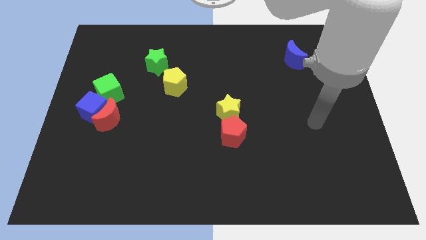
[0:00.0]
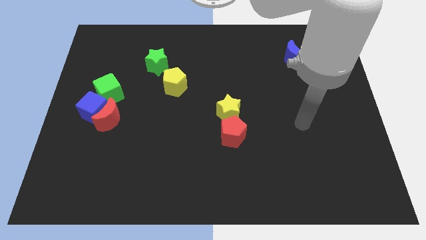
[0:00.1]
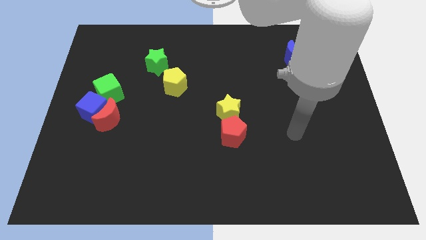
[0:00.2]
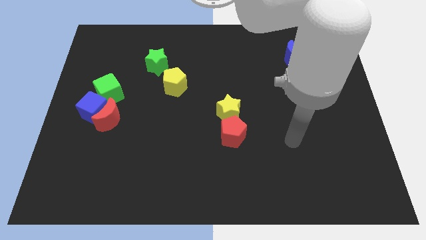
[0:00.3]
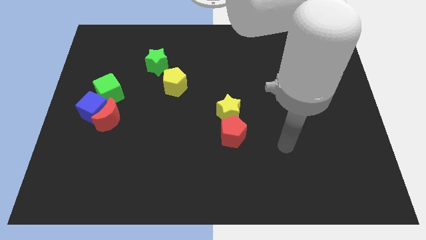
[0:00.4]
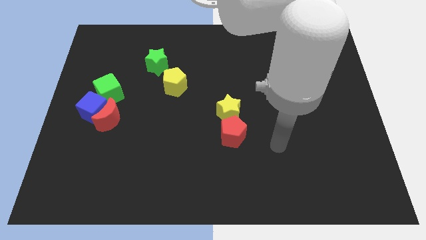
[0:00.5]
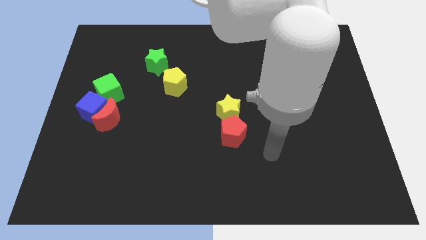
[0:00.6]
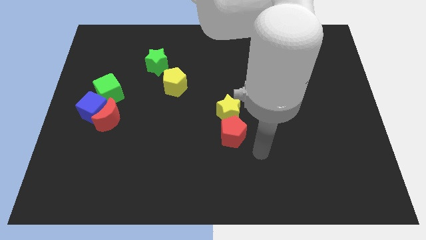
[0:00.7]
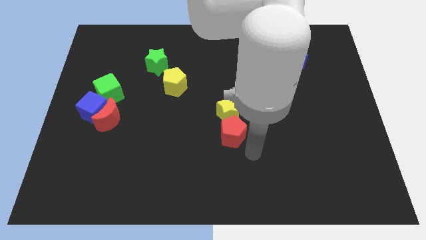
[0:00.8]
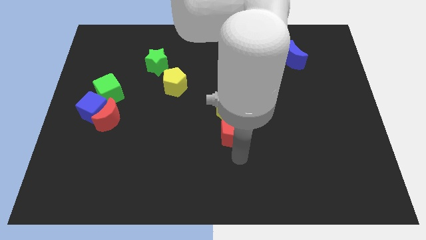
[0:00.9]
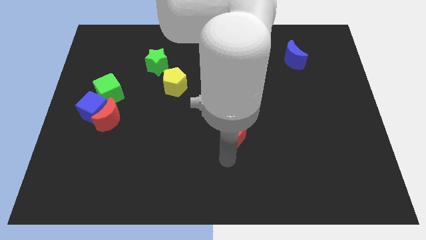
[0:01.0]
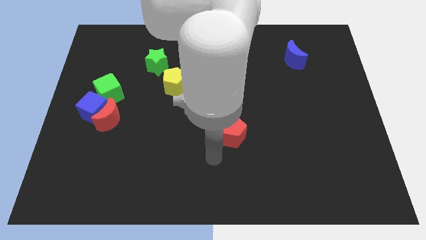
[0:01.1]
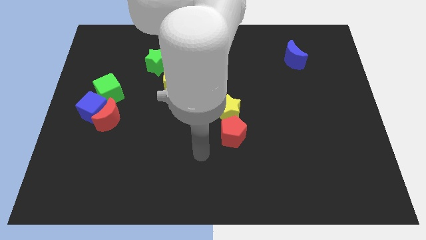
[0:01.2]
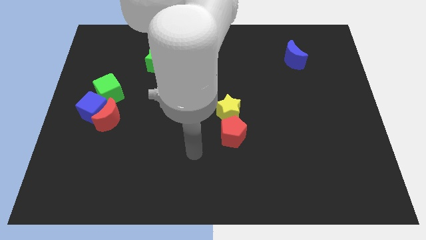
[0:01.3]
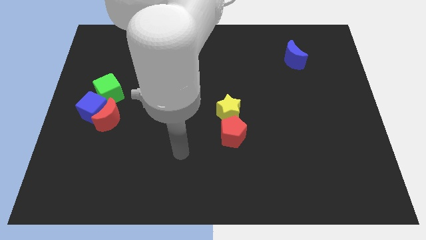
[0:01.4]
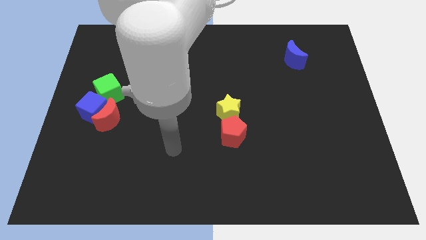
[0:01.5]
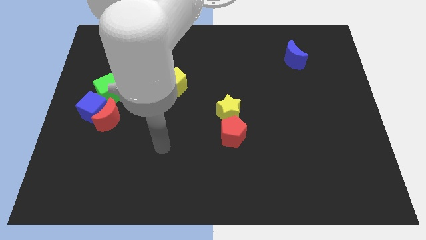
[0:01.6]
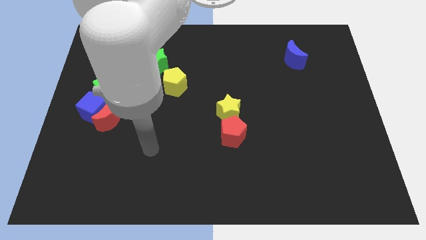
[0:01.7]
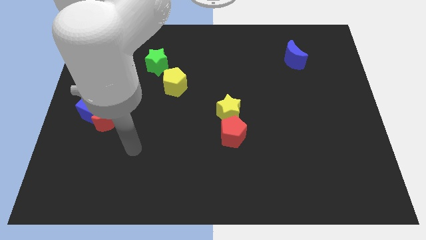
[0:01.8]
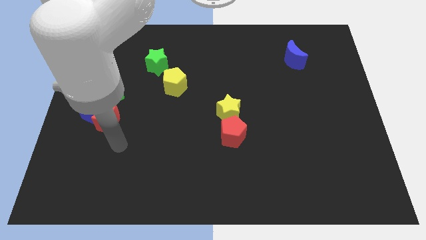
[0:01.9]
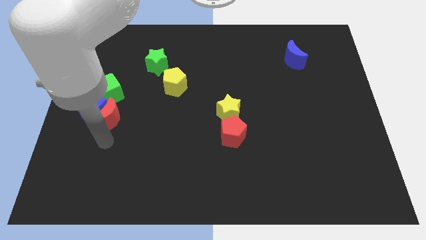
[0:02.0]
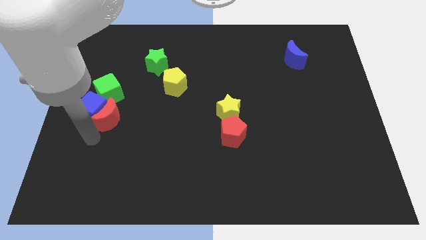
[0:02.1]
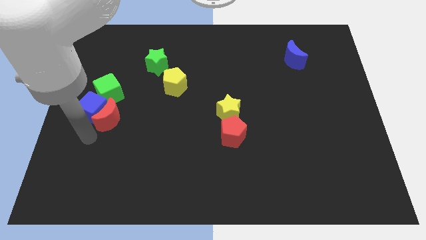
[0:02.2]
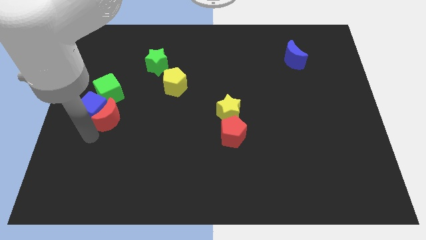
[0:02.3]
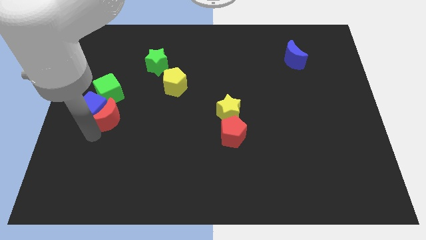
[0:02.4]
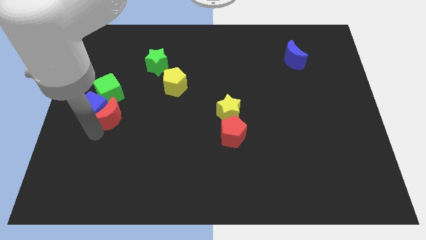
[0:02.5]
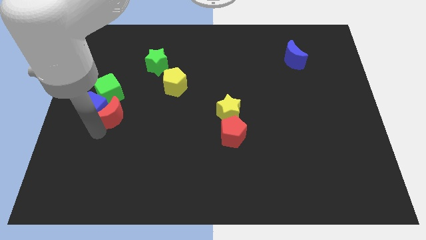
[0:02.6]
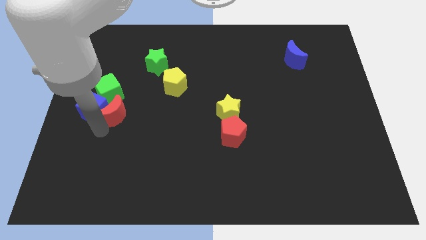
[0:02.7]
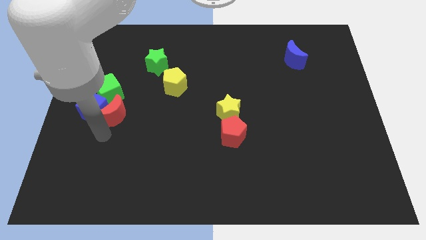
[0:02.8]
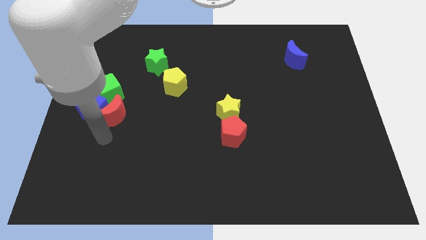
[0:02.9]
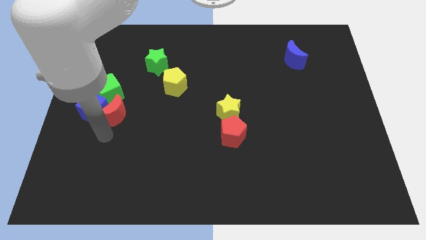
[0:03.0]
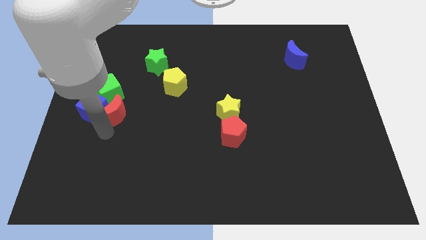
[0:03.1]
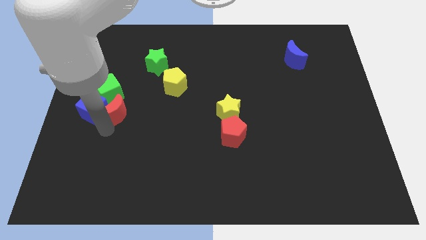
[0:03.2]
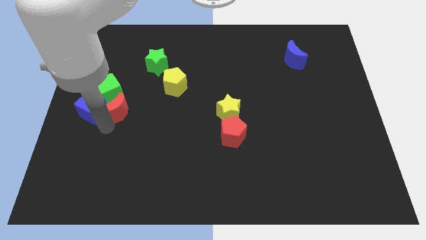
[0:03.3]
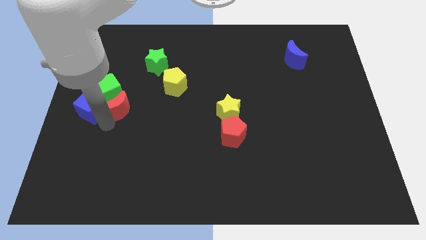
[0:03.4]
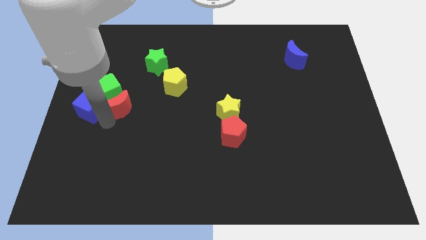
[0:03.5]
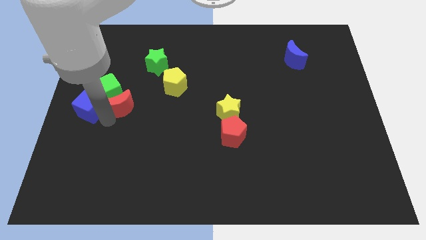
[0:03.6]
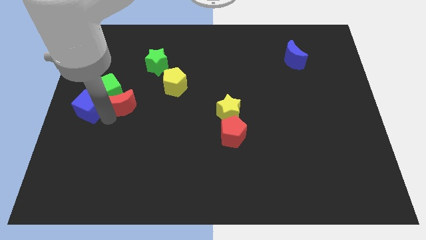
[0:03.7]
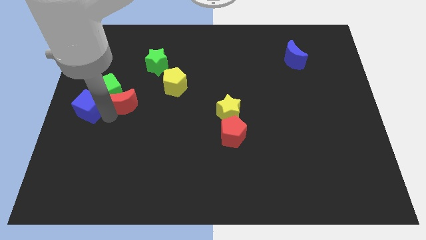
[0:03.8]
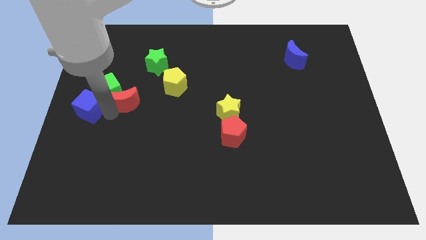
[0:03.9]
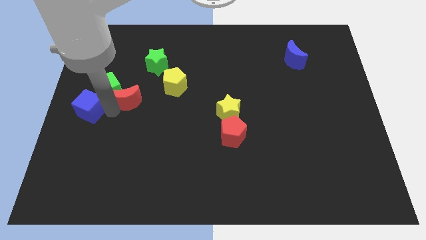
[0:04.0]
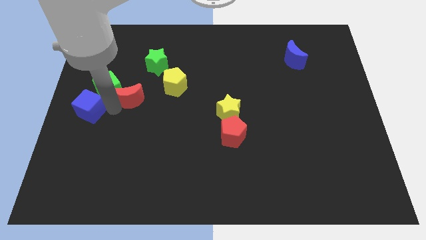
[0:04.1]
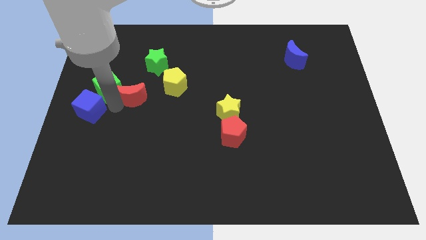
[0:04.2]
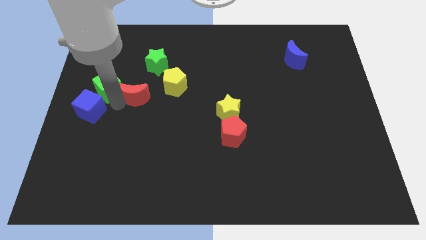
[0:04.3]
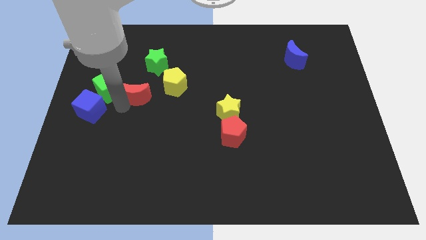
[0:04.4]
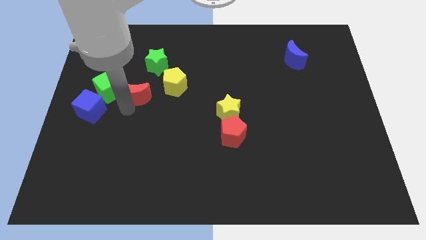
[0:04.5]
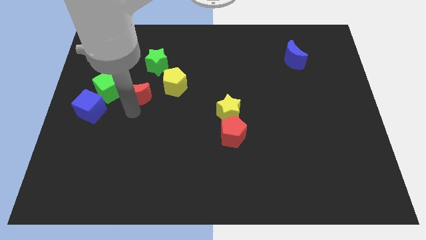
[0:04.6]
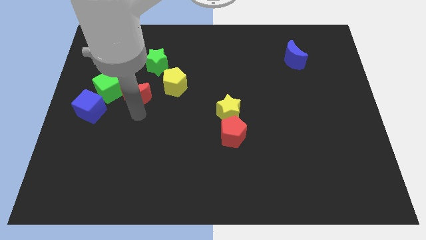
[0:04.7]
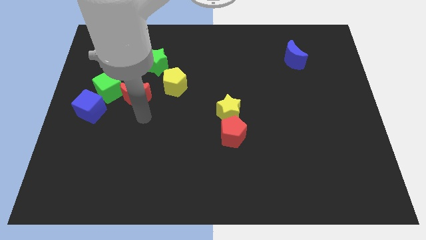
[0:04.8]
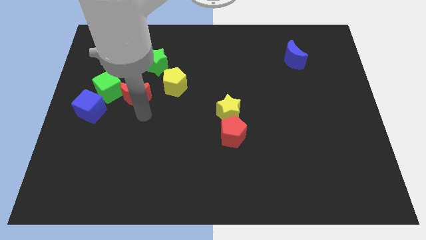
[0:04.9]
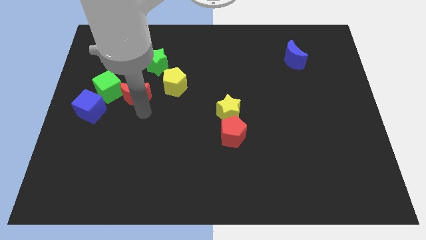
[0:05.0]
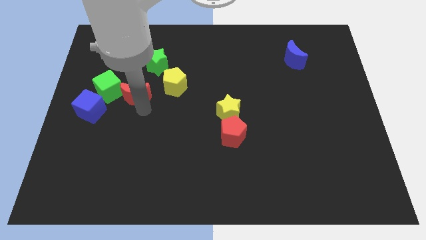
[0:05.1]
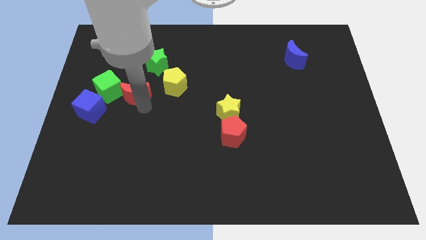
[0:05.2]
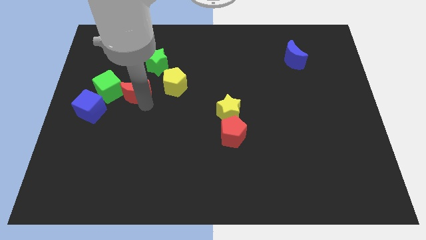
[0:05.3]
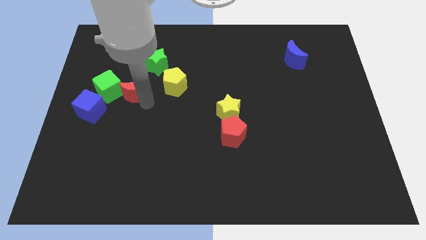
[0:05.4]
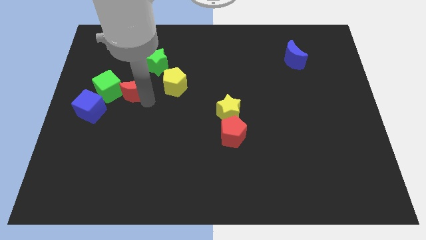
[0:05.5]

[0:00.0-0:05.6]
slightly move the red moon upwards

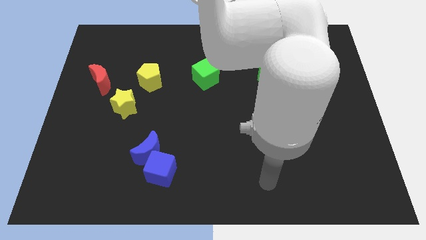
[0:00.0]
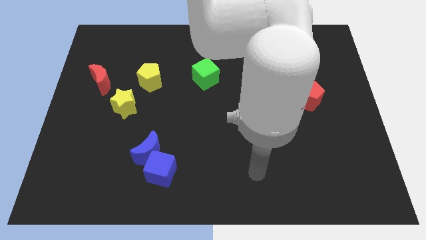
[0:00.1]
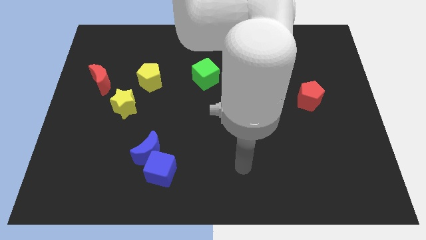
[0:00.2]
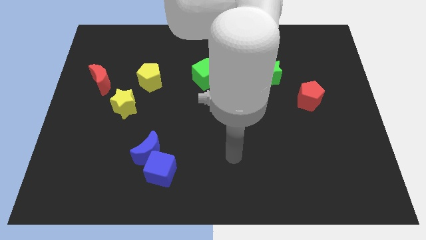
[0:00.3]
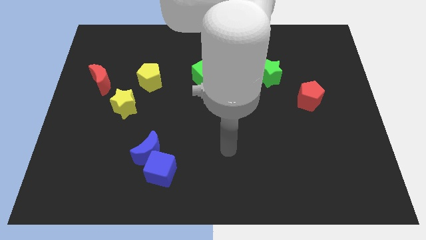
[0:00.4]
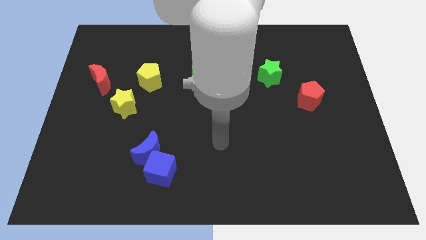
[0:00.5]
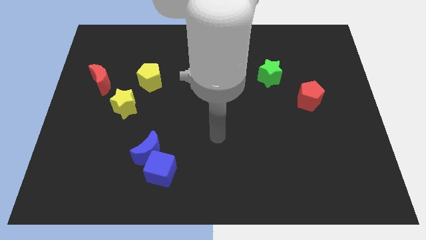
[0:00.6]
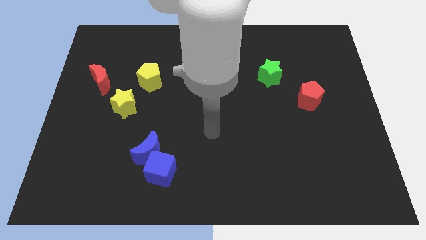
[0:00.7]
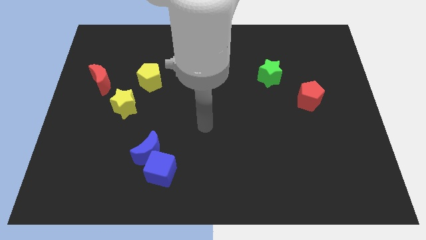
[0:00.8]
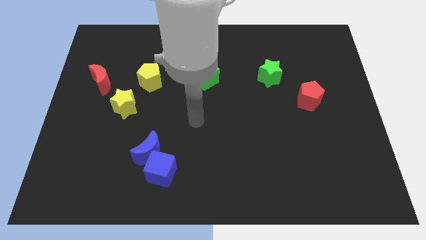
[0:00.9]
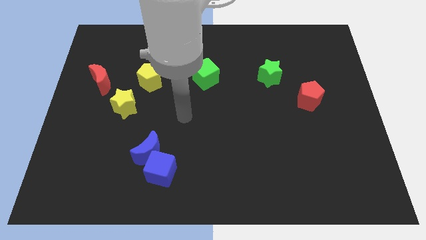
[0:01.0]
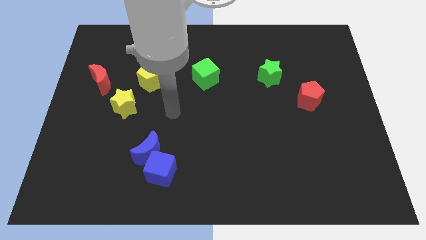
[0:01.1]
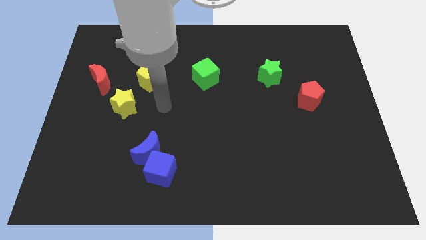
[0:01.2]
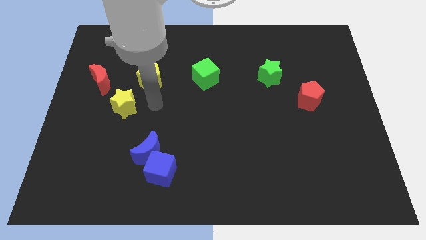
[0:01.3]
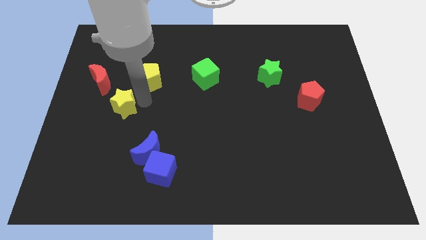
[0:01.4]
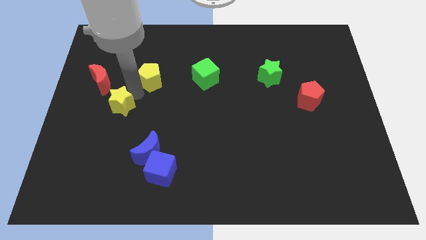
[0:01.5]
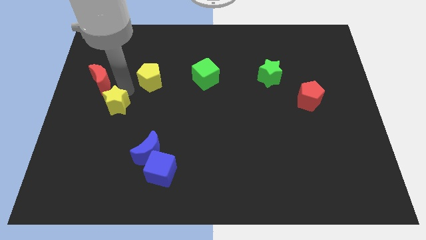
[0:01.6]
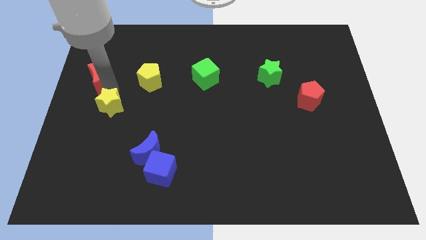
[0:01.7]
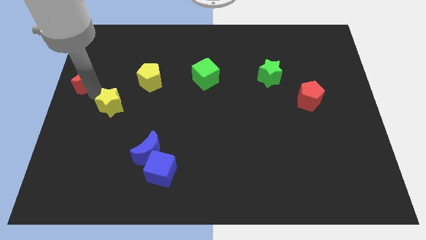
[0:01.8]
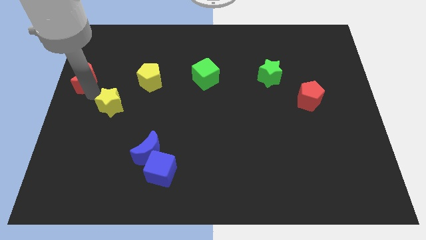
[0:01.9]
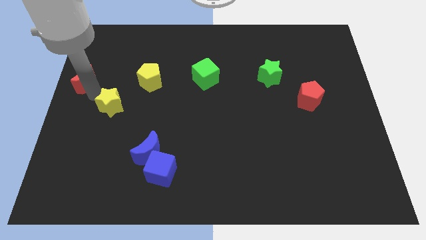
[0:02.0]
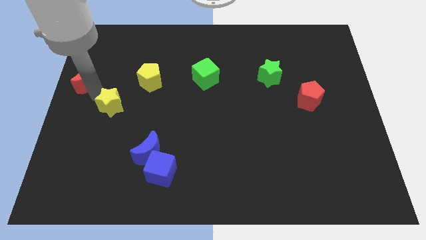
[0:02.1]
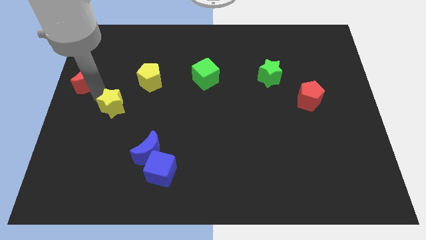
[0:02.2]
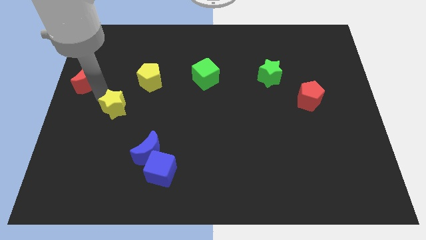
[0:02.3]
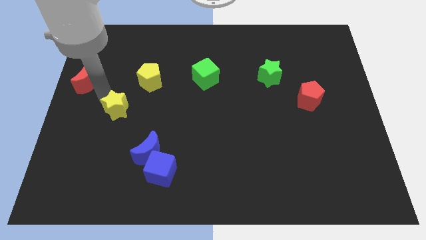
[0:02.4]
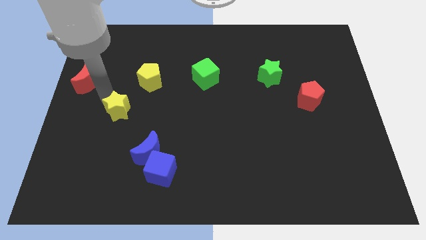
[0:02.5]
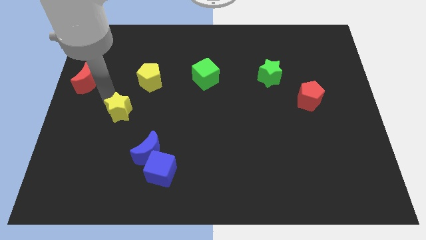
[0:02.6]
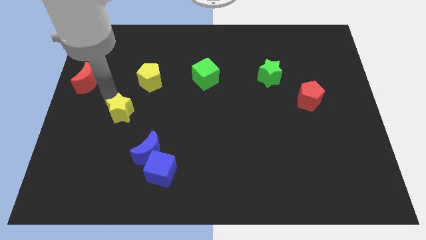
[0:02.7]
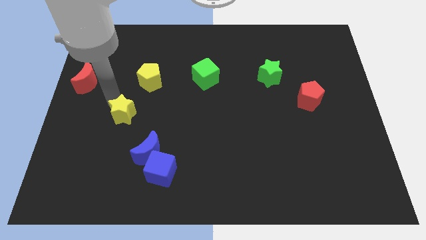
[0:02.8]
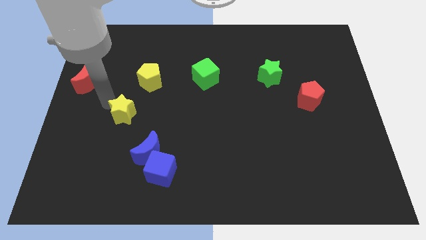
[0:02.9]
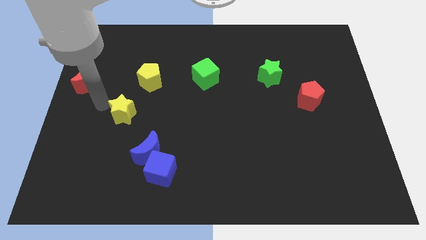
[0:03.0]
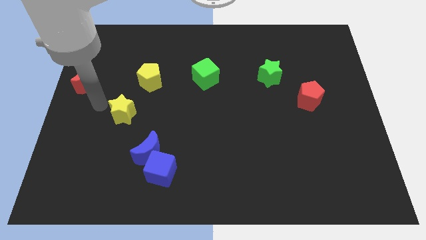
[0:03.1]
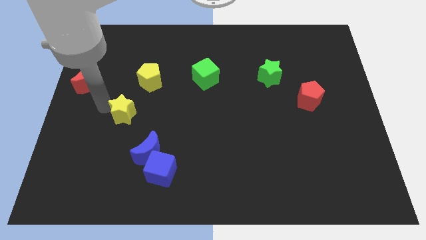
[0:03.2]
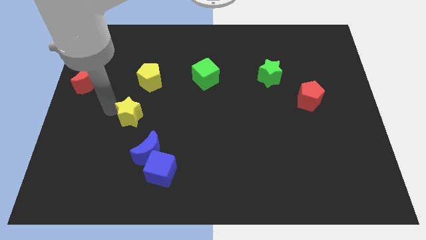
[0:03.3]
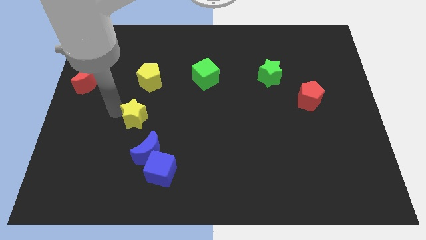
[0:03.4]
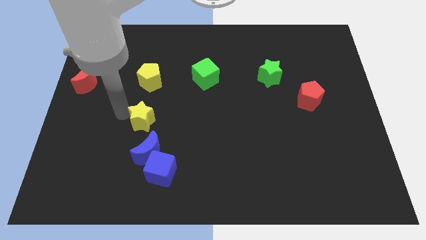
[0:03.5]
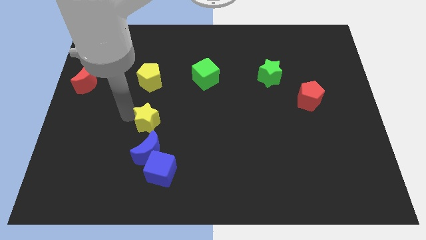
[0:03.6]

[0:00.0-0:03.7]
slide the yellow star slightly downwards and then right
